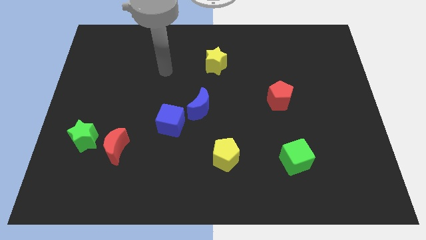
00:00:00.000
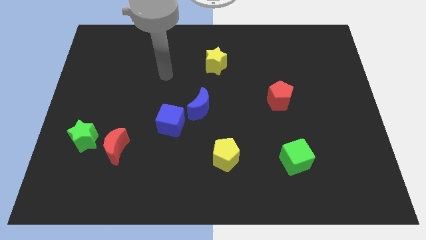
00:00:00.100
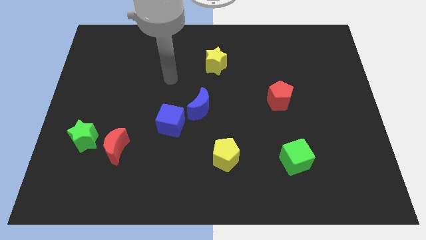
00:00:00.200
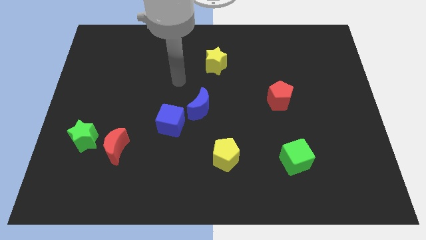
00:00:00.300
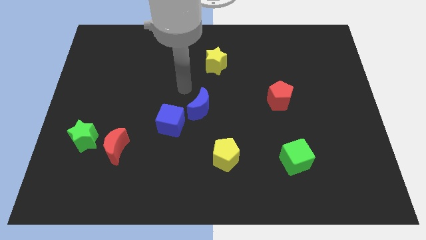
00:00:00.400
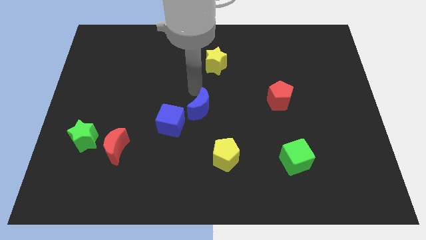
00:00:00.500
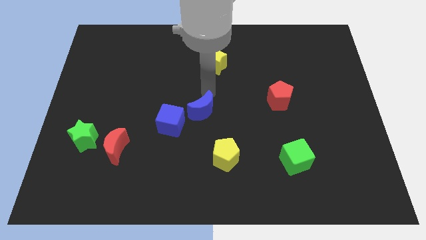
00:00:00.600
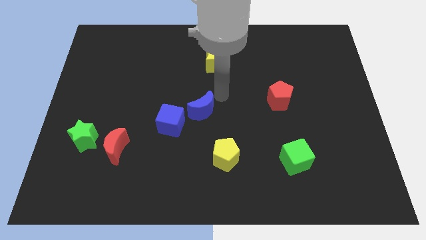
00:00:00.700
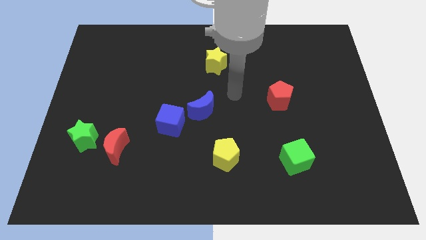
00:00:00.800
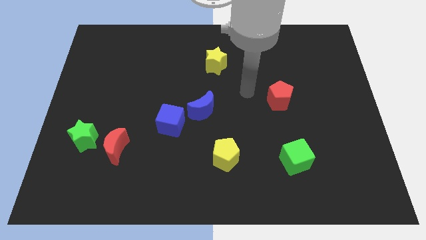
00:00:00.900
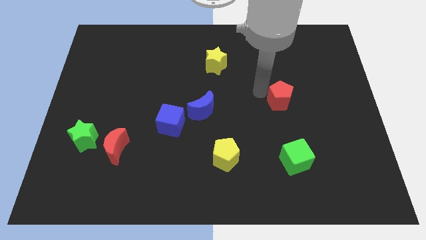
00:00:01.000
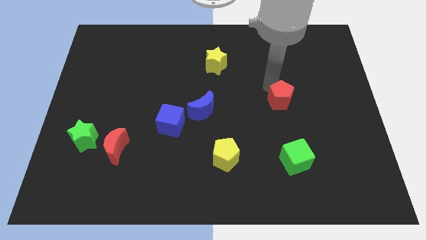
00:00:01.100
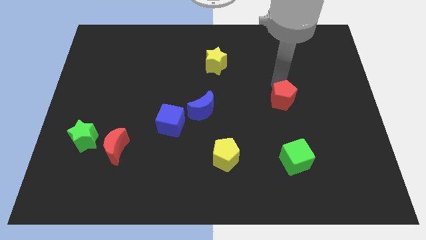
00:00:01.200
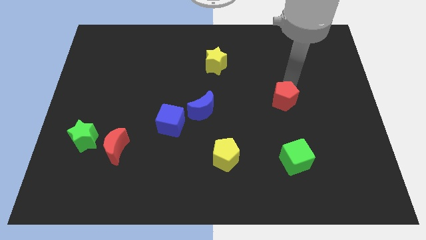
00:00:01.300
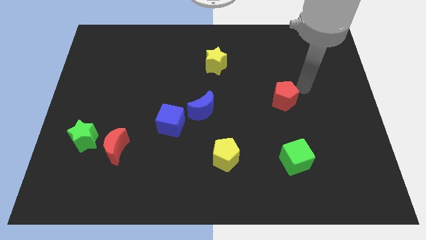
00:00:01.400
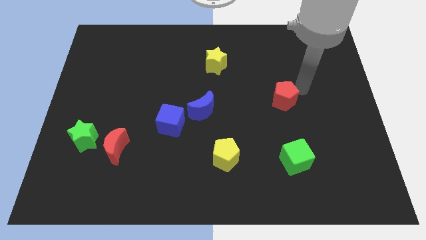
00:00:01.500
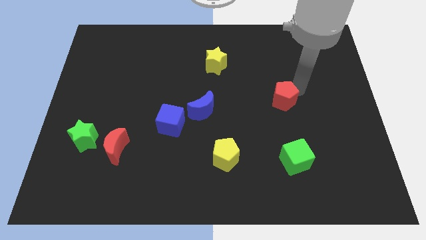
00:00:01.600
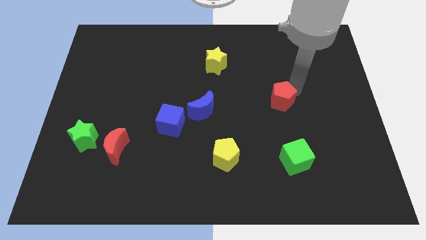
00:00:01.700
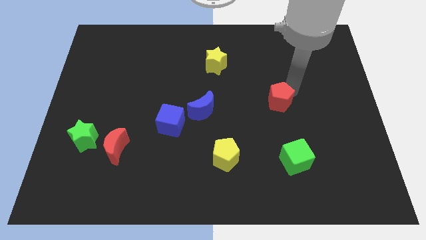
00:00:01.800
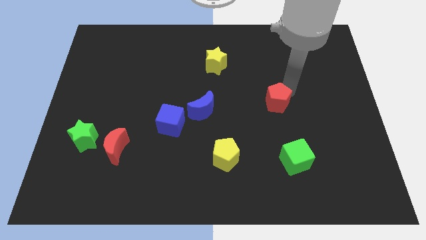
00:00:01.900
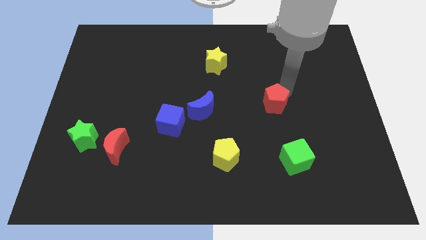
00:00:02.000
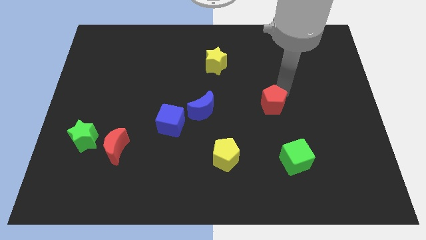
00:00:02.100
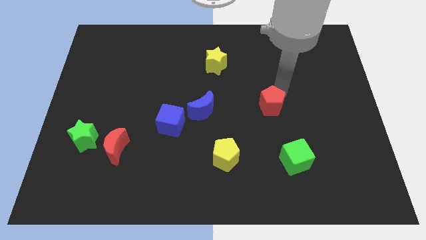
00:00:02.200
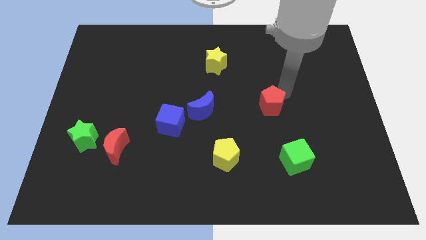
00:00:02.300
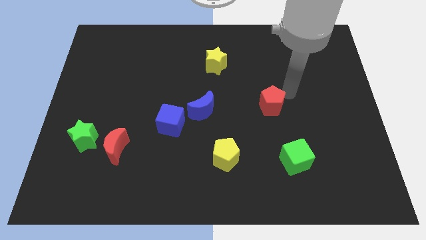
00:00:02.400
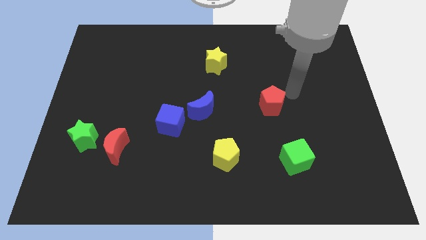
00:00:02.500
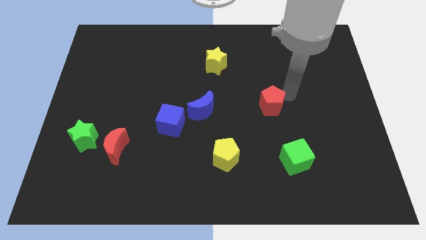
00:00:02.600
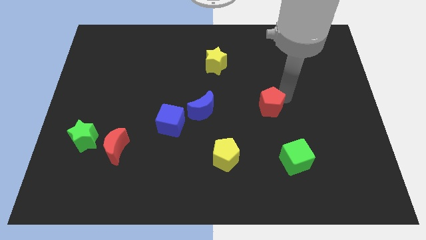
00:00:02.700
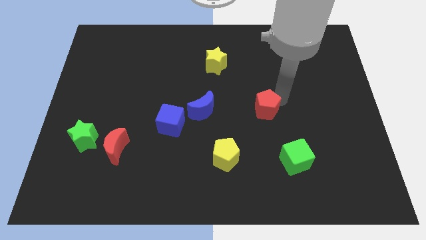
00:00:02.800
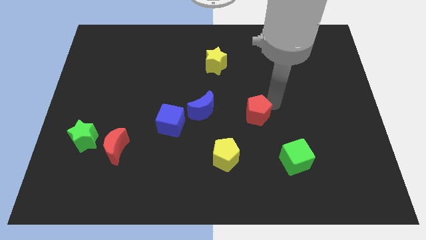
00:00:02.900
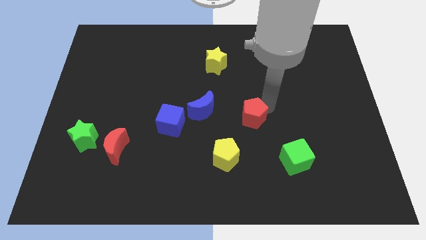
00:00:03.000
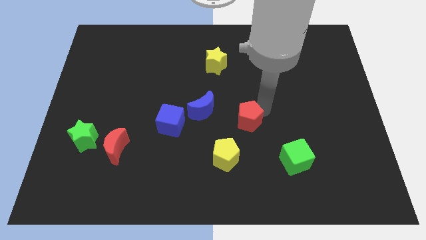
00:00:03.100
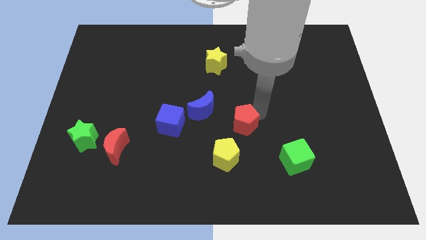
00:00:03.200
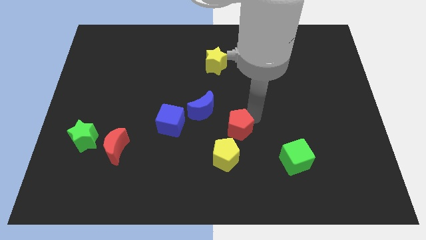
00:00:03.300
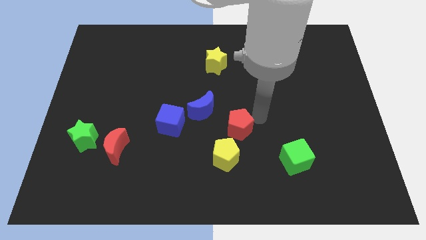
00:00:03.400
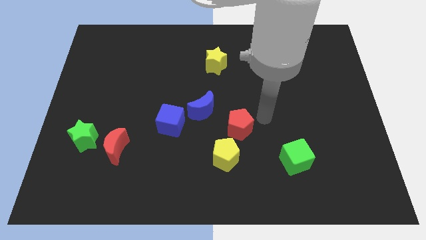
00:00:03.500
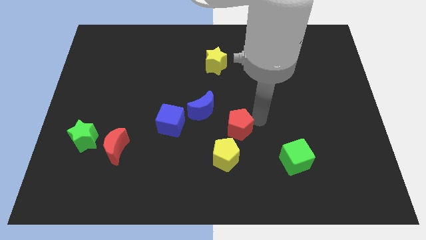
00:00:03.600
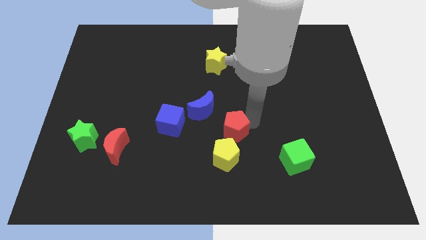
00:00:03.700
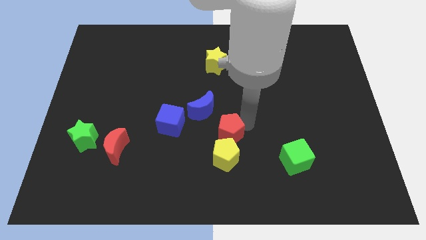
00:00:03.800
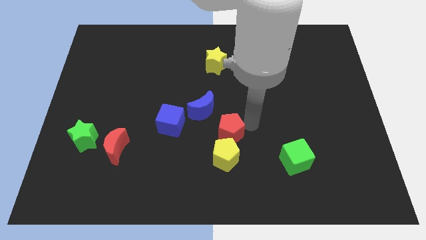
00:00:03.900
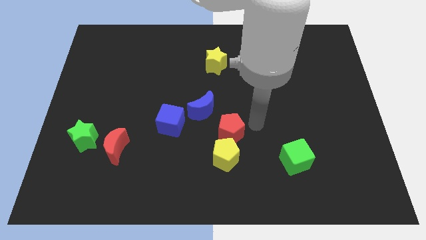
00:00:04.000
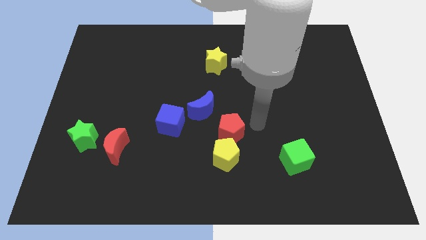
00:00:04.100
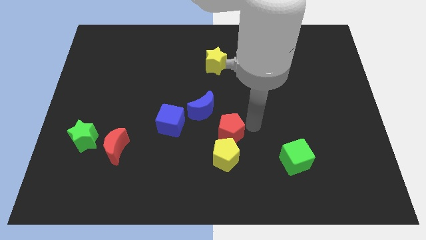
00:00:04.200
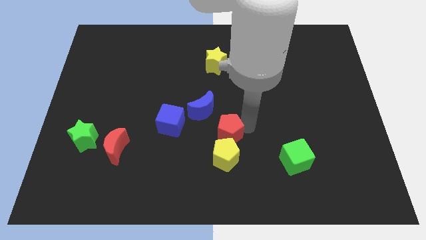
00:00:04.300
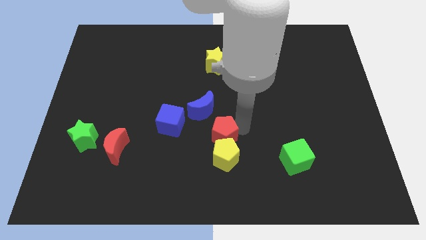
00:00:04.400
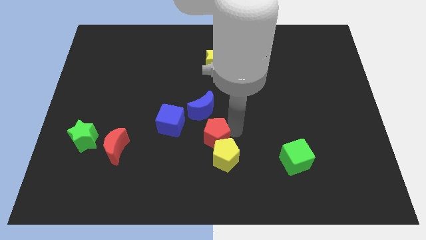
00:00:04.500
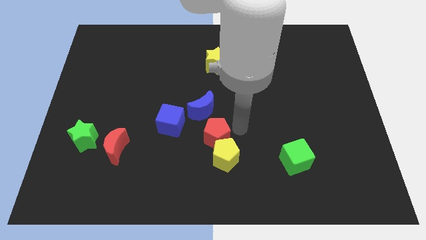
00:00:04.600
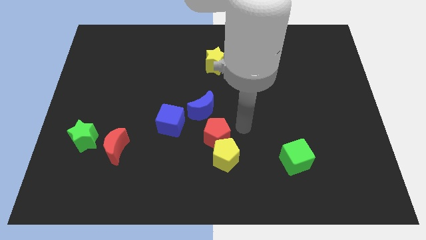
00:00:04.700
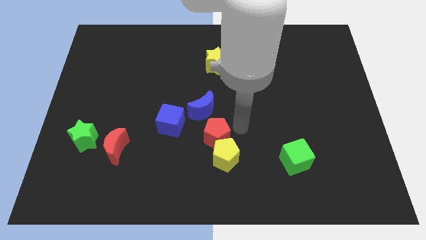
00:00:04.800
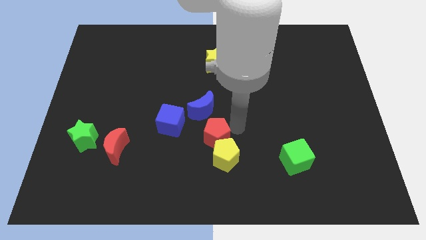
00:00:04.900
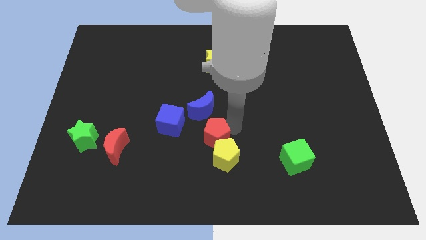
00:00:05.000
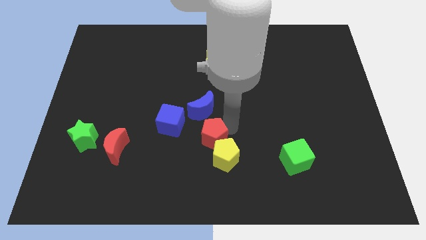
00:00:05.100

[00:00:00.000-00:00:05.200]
push the red pentagon to the bottom right side of the blue cube

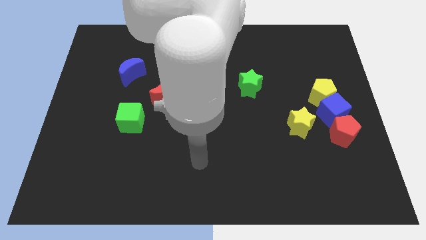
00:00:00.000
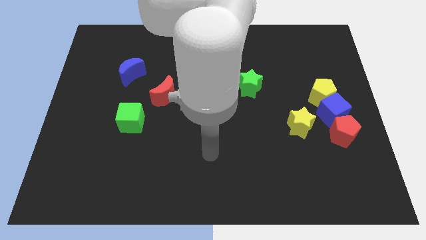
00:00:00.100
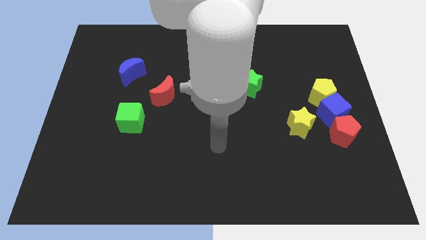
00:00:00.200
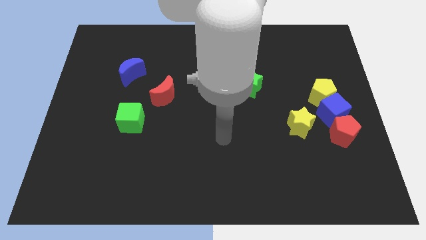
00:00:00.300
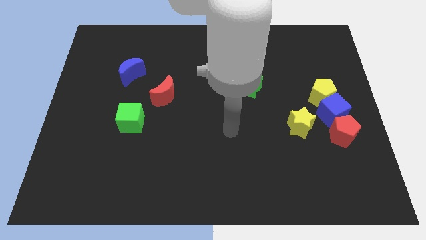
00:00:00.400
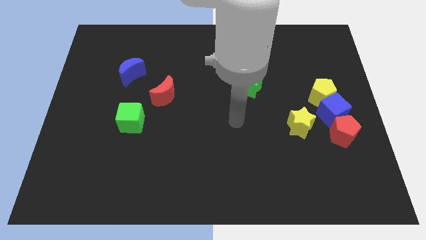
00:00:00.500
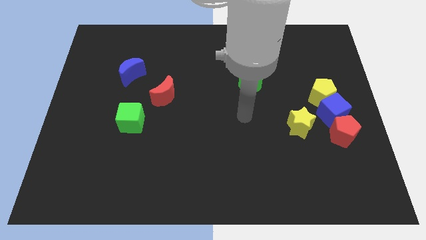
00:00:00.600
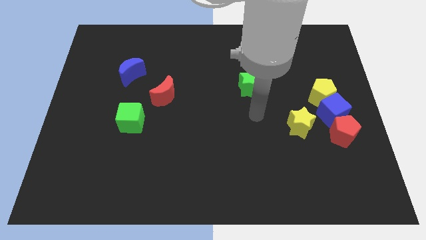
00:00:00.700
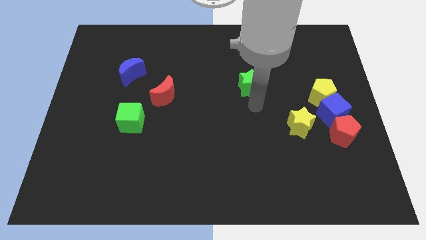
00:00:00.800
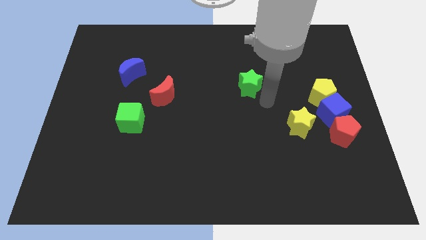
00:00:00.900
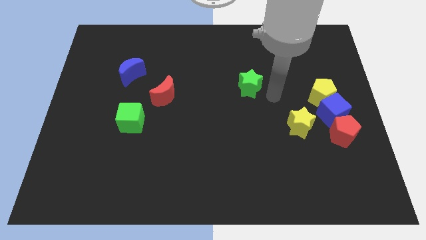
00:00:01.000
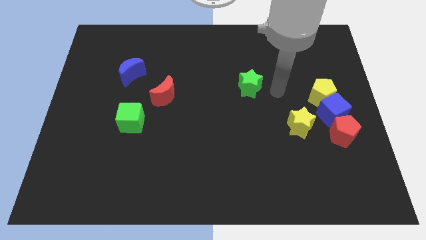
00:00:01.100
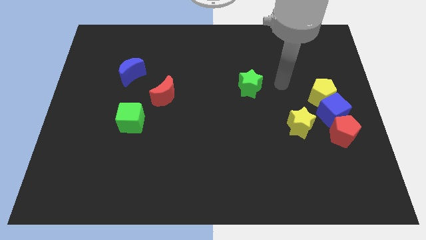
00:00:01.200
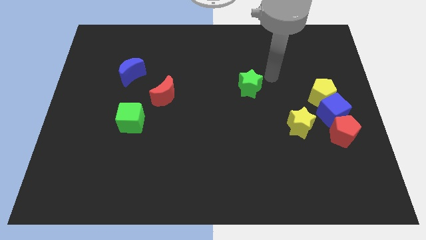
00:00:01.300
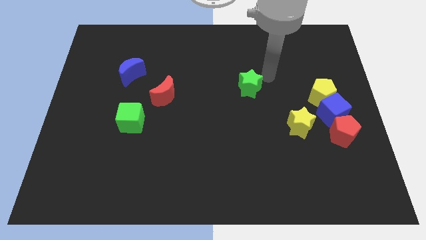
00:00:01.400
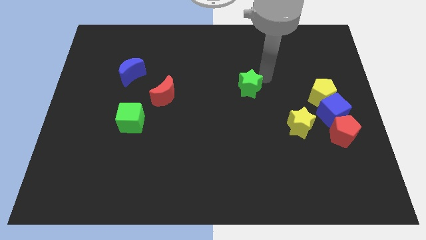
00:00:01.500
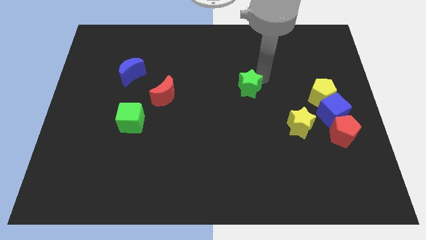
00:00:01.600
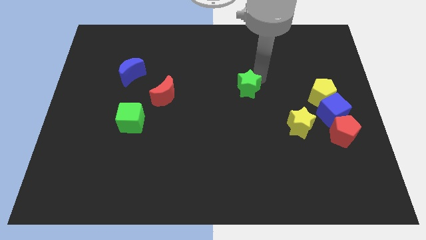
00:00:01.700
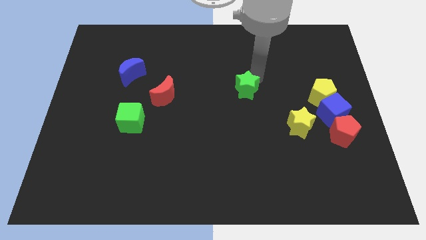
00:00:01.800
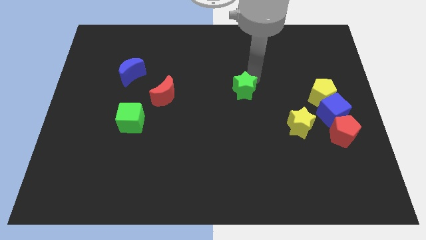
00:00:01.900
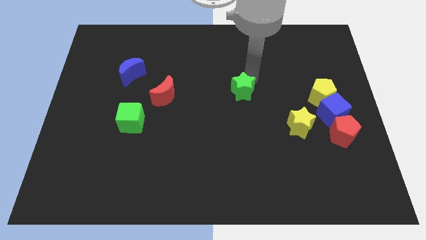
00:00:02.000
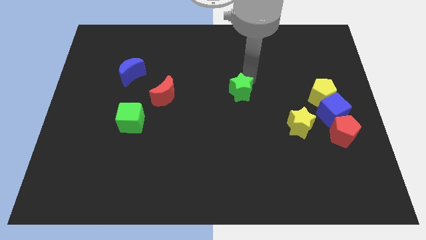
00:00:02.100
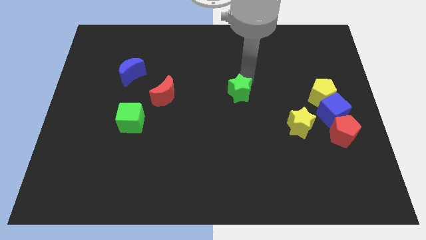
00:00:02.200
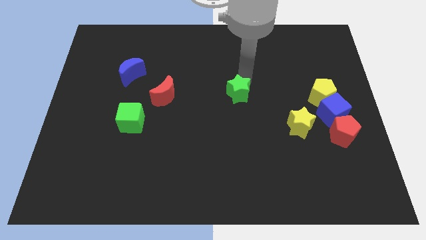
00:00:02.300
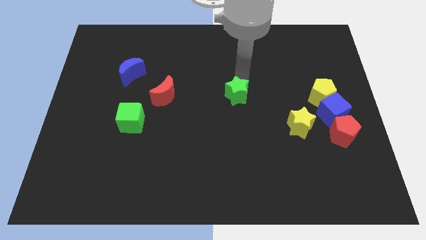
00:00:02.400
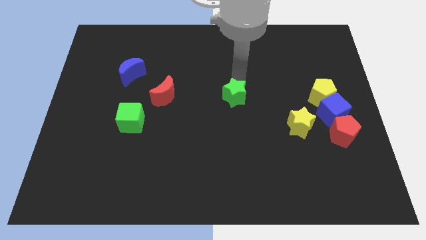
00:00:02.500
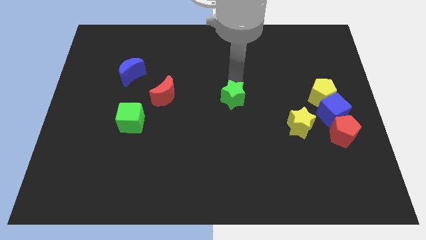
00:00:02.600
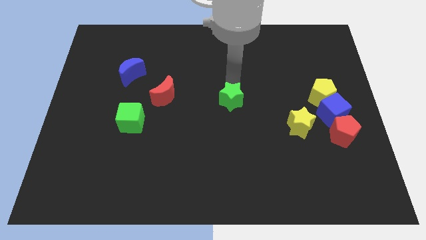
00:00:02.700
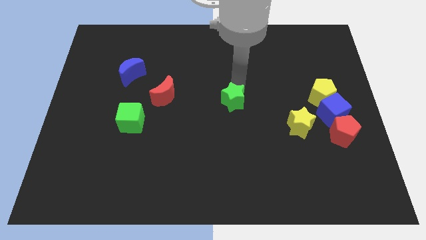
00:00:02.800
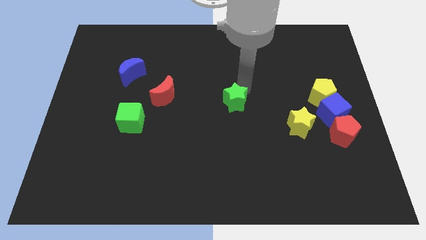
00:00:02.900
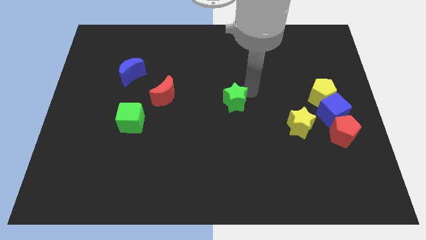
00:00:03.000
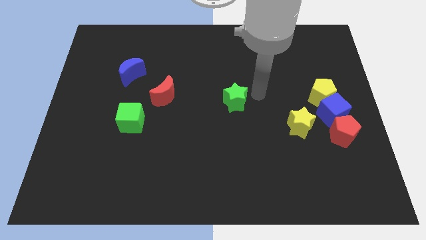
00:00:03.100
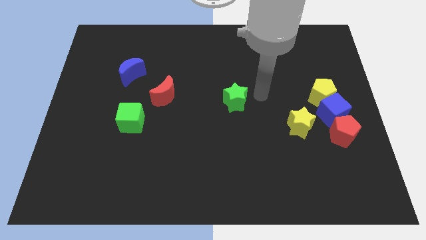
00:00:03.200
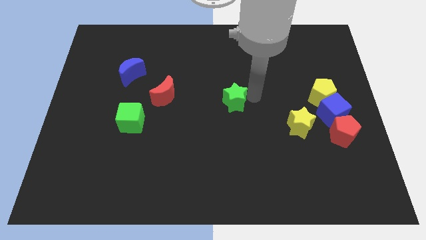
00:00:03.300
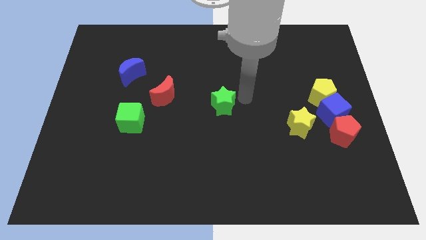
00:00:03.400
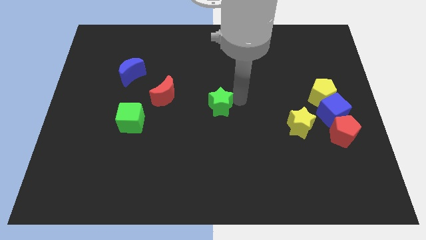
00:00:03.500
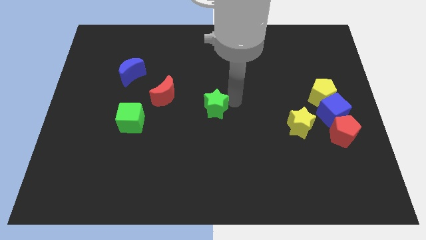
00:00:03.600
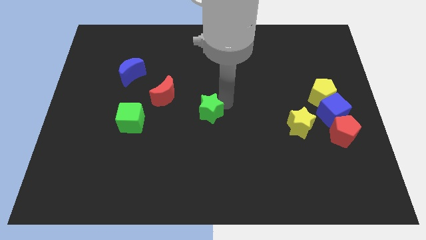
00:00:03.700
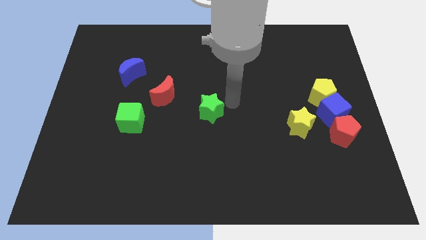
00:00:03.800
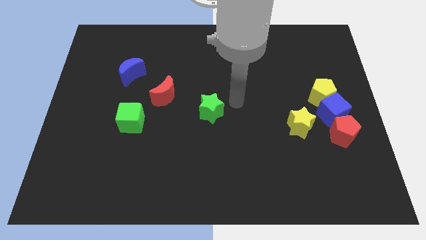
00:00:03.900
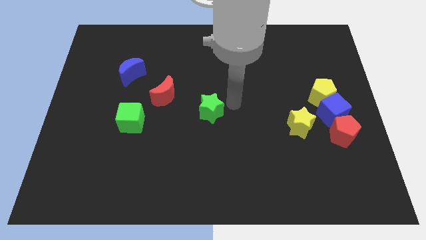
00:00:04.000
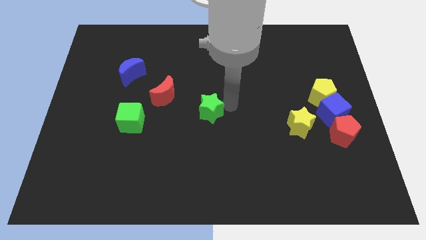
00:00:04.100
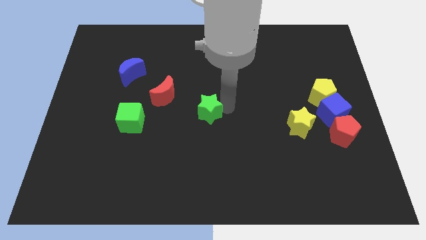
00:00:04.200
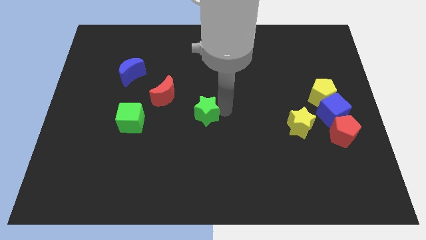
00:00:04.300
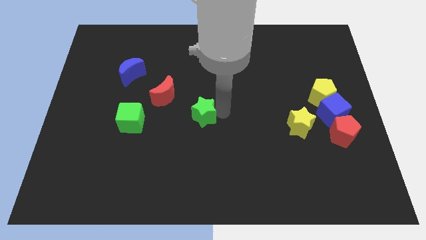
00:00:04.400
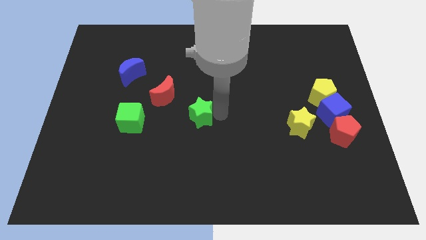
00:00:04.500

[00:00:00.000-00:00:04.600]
put the green star just right of the green cube
